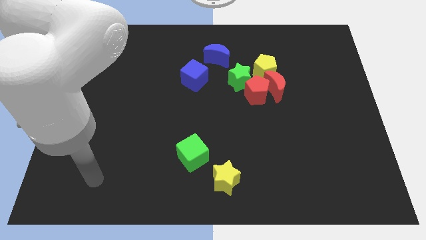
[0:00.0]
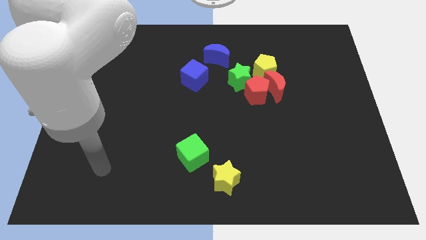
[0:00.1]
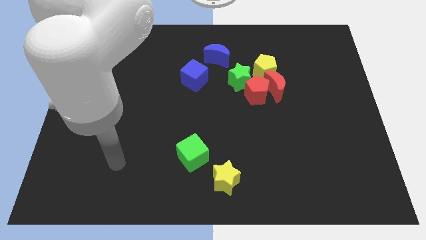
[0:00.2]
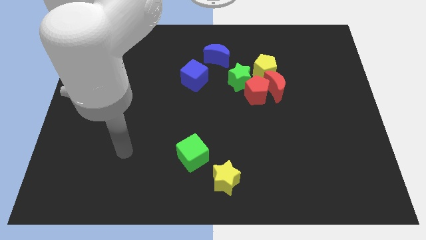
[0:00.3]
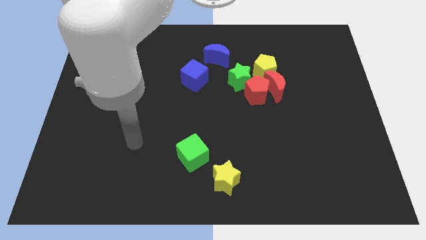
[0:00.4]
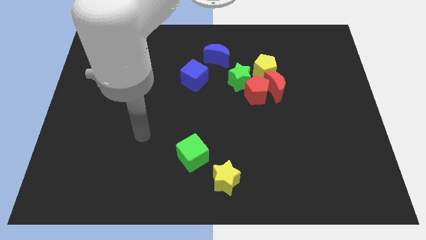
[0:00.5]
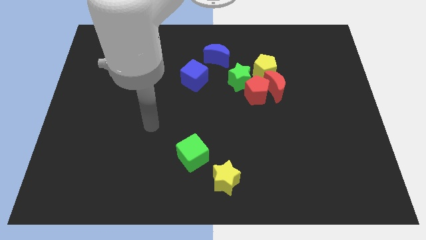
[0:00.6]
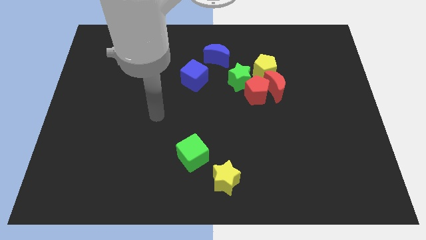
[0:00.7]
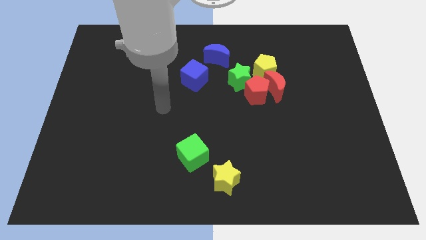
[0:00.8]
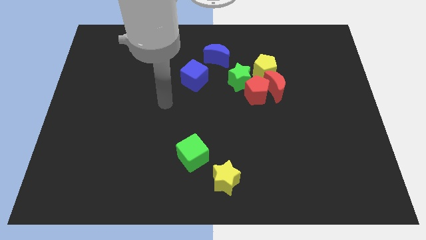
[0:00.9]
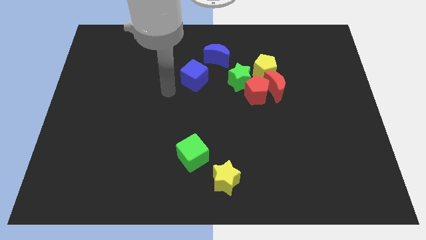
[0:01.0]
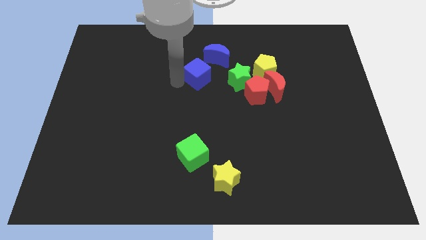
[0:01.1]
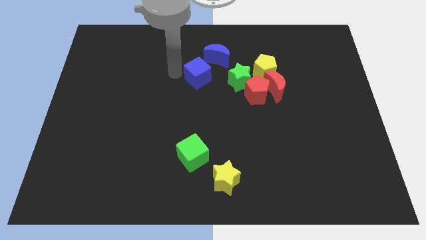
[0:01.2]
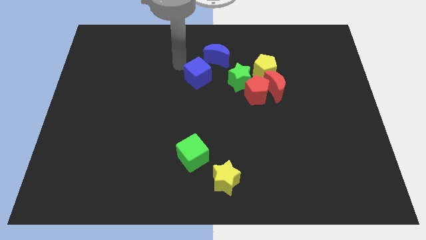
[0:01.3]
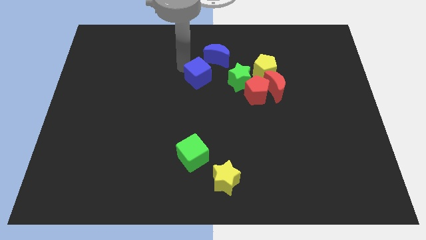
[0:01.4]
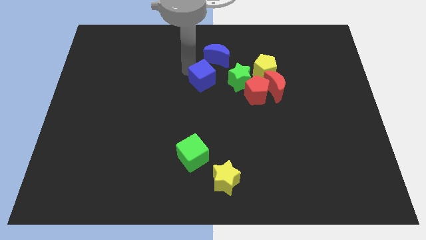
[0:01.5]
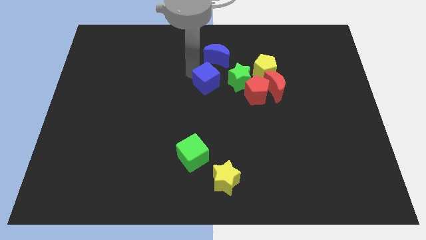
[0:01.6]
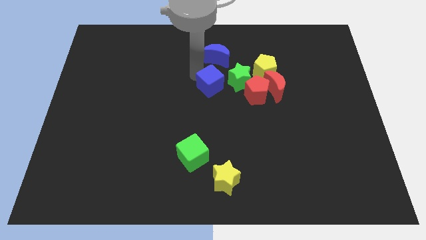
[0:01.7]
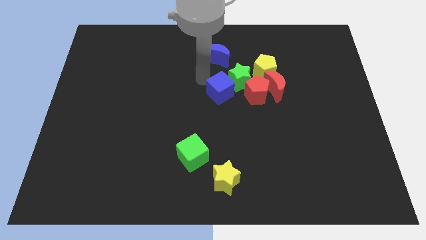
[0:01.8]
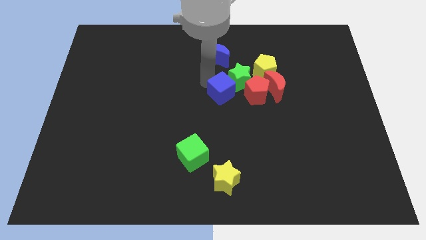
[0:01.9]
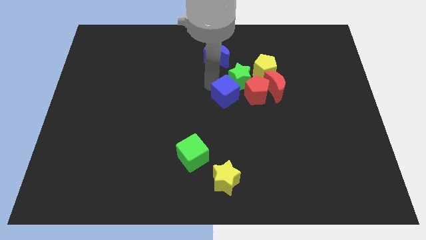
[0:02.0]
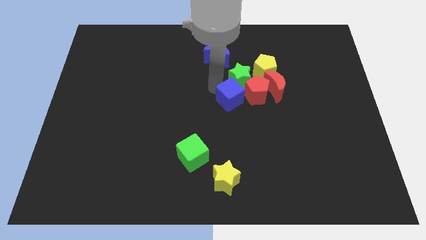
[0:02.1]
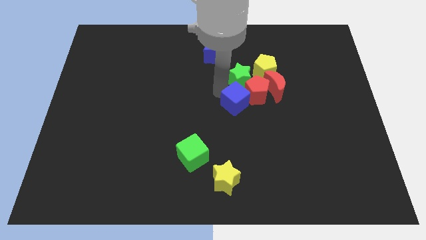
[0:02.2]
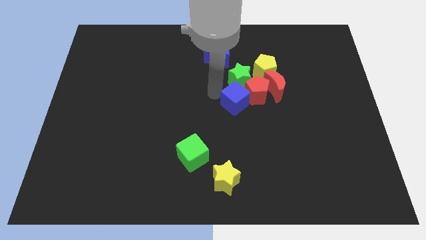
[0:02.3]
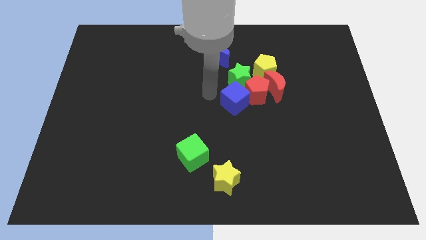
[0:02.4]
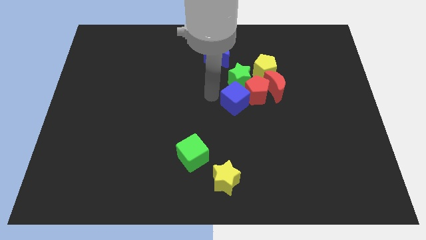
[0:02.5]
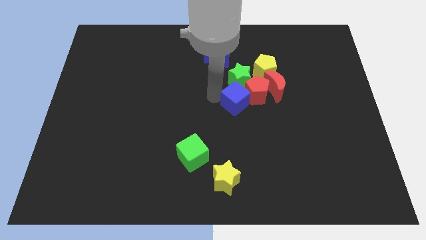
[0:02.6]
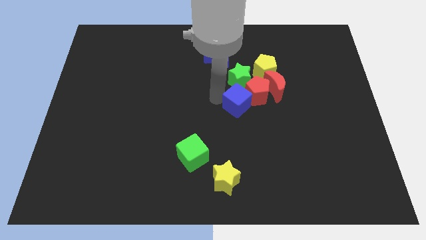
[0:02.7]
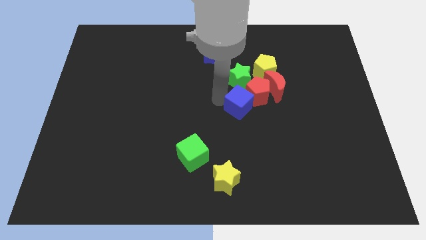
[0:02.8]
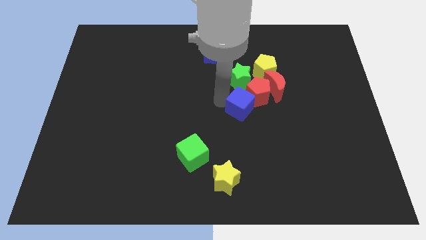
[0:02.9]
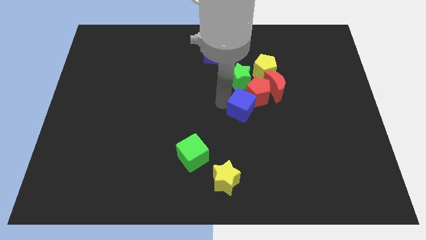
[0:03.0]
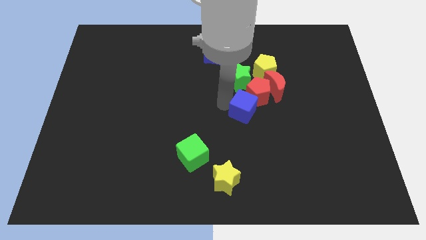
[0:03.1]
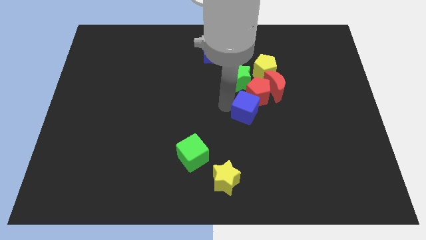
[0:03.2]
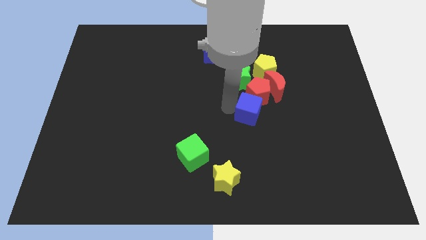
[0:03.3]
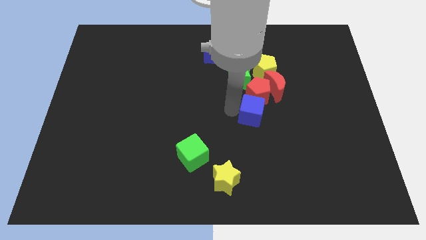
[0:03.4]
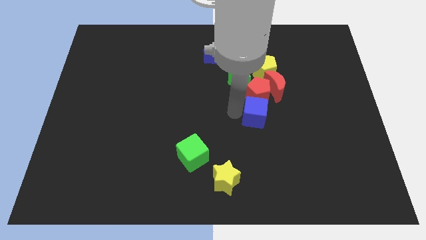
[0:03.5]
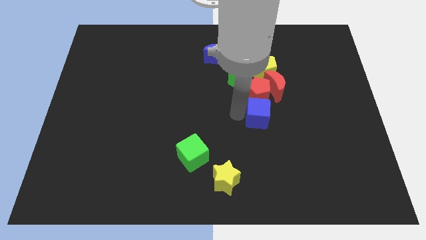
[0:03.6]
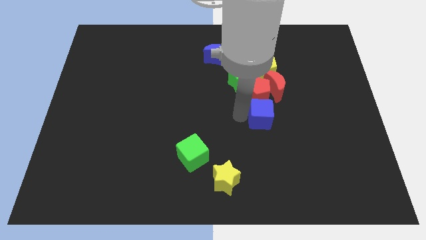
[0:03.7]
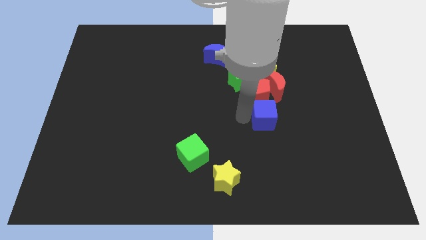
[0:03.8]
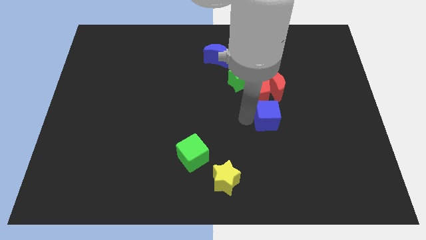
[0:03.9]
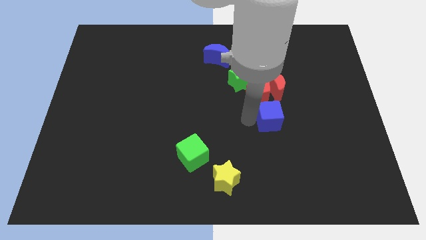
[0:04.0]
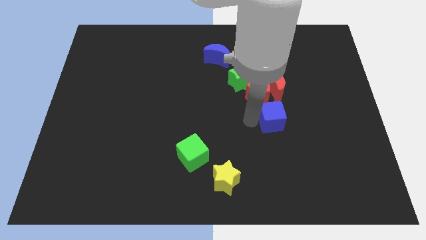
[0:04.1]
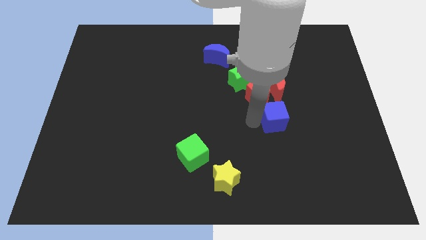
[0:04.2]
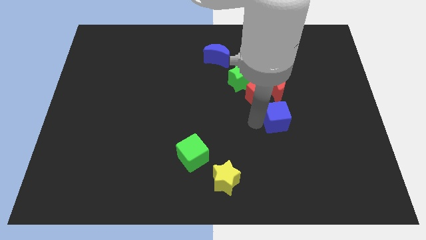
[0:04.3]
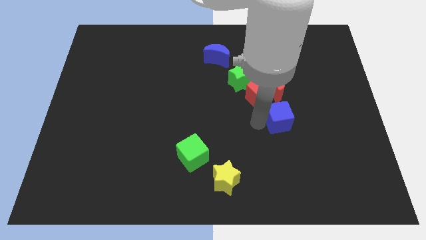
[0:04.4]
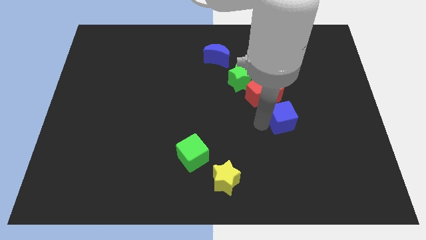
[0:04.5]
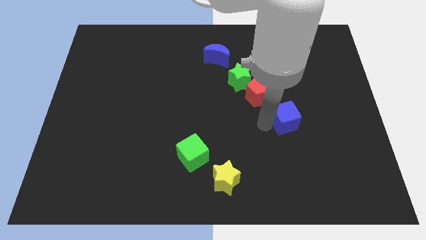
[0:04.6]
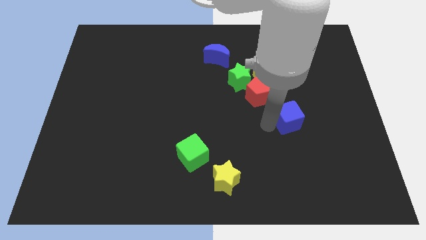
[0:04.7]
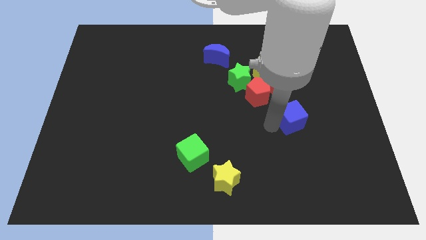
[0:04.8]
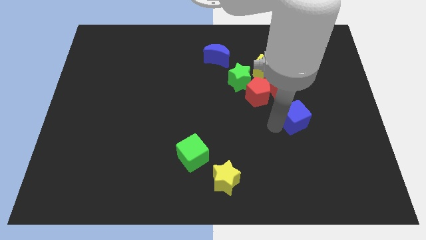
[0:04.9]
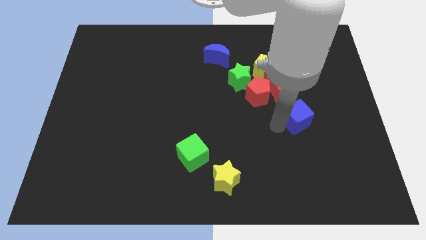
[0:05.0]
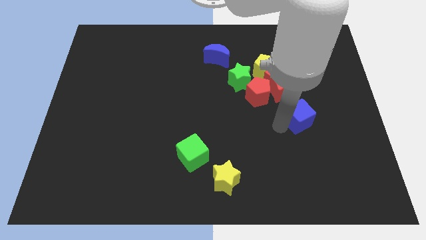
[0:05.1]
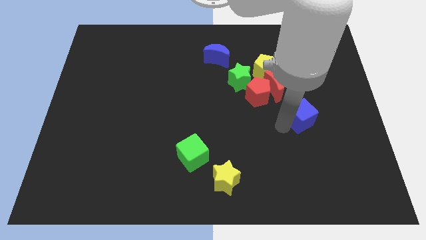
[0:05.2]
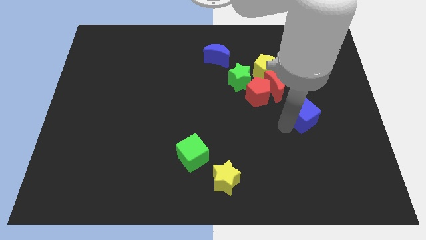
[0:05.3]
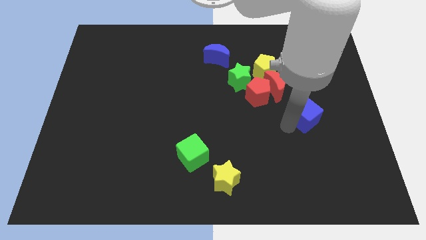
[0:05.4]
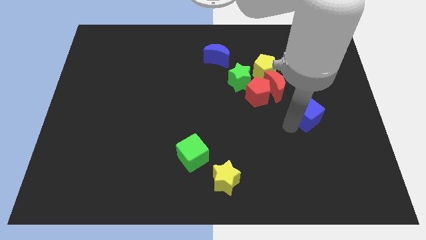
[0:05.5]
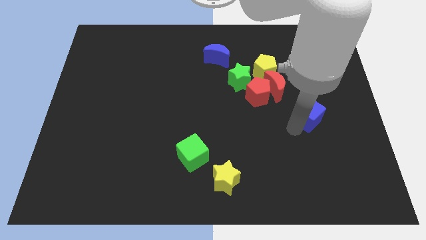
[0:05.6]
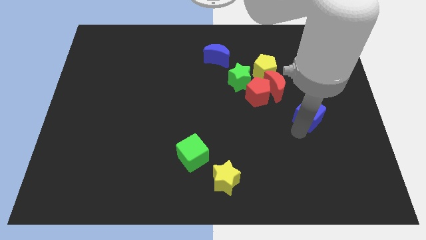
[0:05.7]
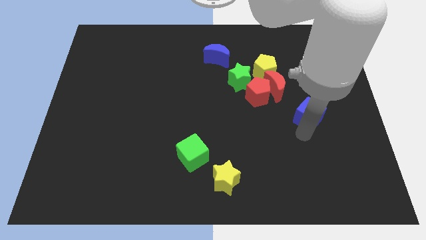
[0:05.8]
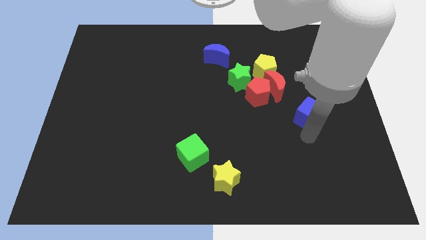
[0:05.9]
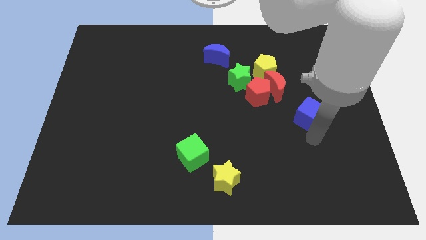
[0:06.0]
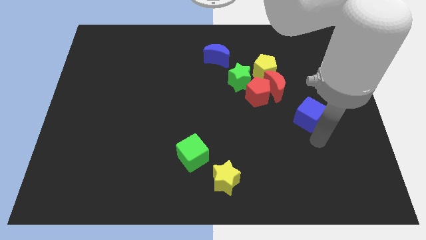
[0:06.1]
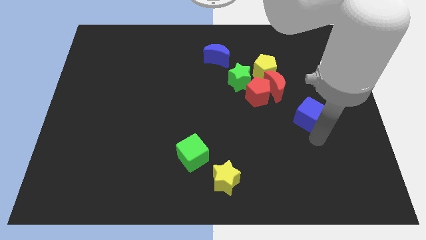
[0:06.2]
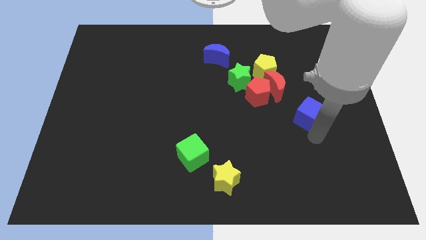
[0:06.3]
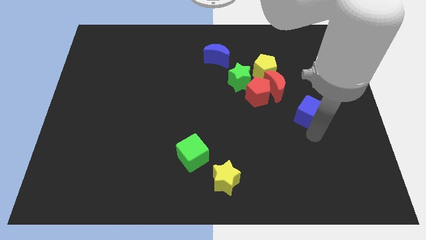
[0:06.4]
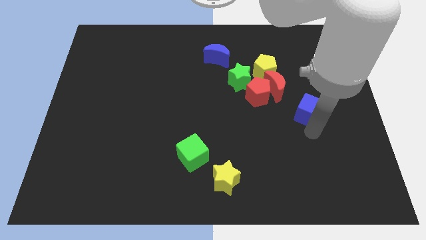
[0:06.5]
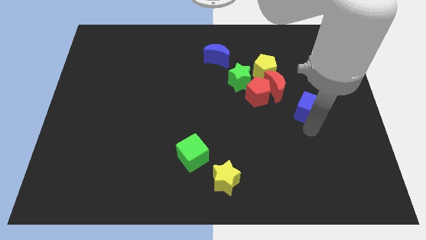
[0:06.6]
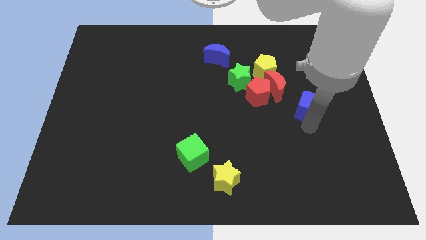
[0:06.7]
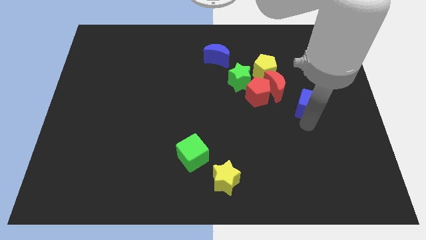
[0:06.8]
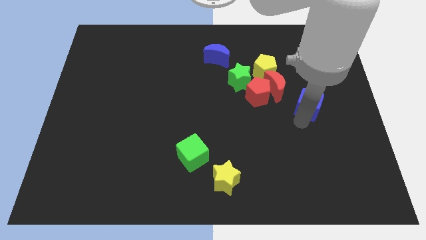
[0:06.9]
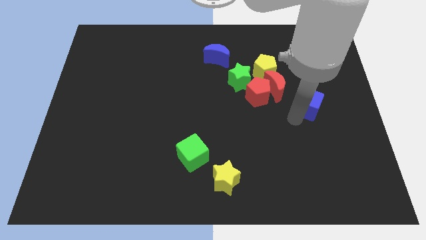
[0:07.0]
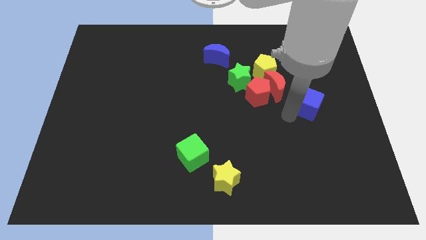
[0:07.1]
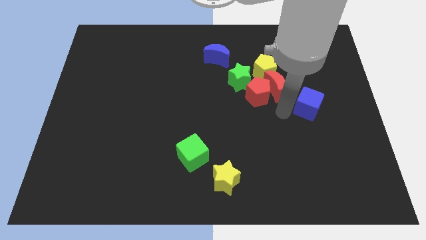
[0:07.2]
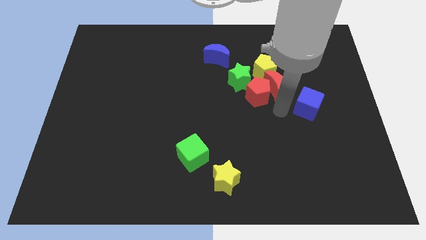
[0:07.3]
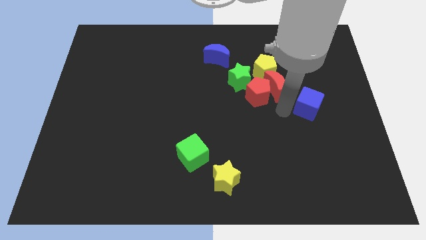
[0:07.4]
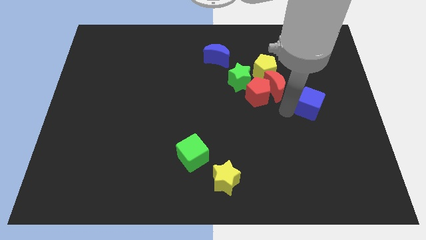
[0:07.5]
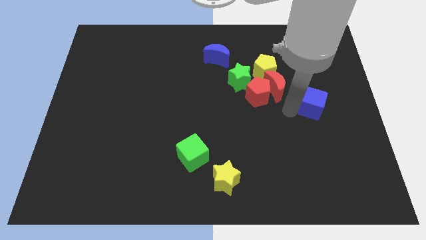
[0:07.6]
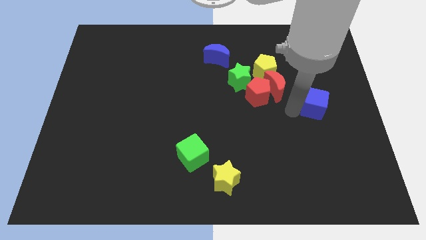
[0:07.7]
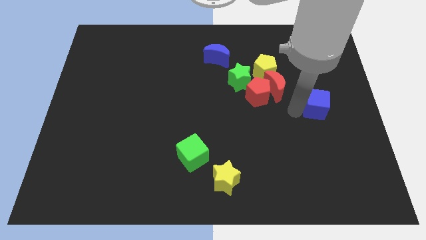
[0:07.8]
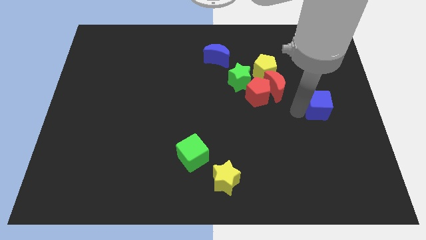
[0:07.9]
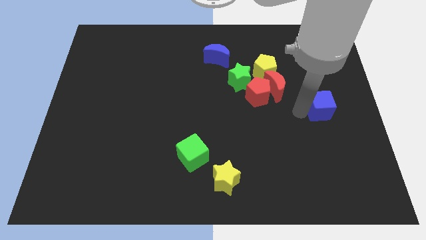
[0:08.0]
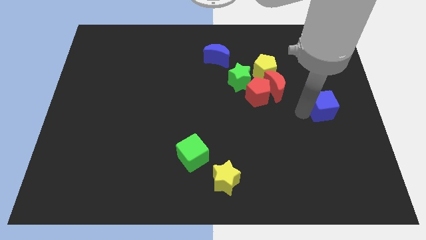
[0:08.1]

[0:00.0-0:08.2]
move the blue cube to the right side
